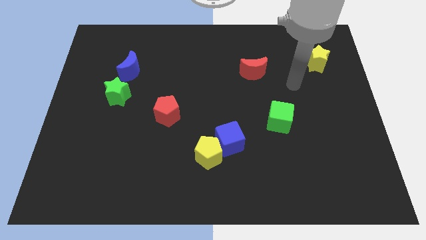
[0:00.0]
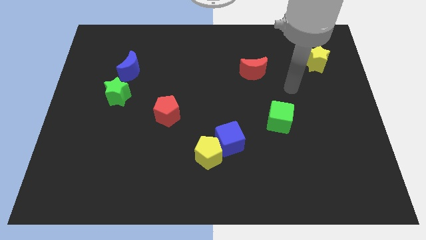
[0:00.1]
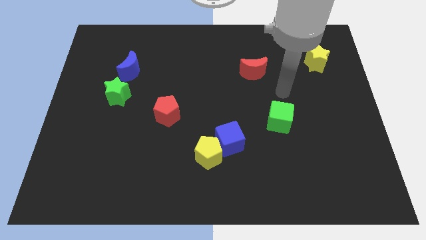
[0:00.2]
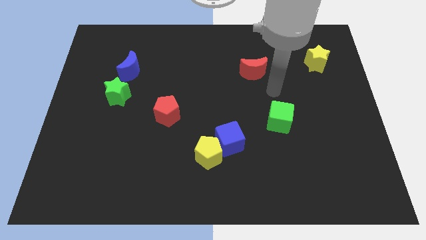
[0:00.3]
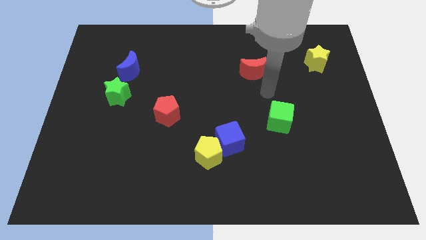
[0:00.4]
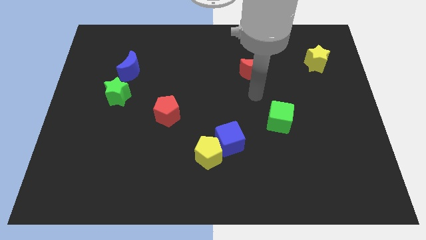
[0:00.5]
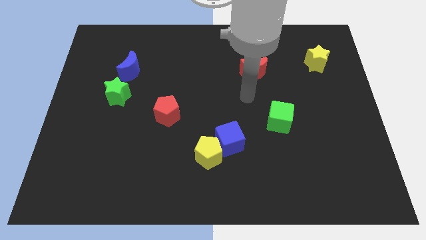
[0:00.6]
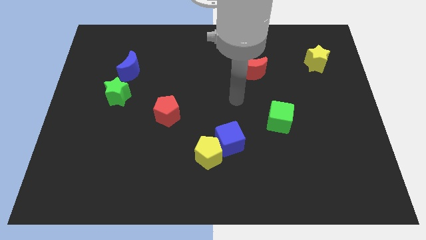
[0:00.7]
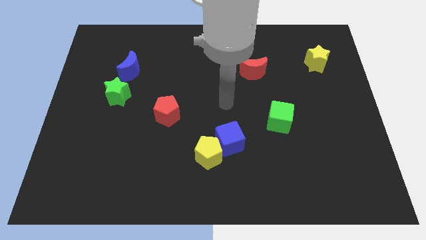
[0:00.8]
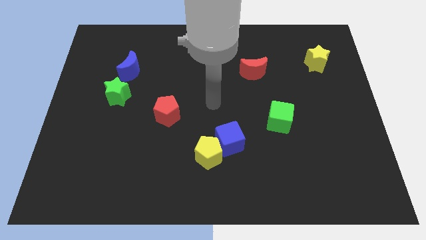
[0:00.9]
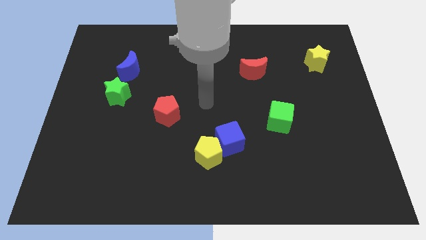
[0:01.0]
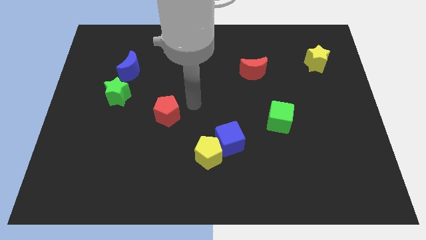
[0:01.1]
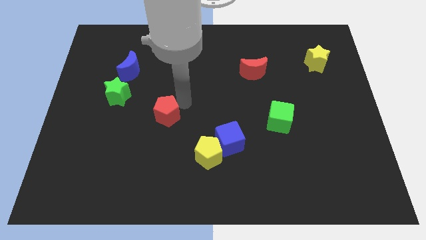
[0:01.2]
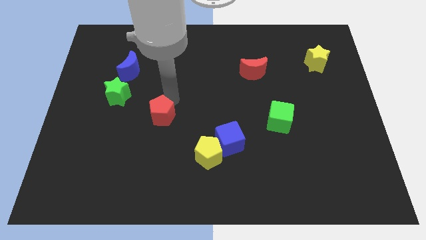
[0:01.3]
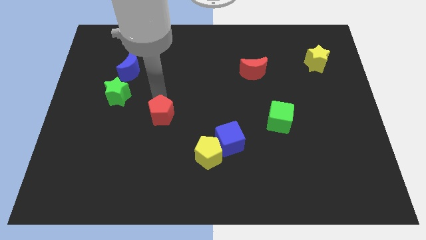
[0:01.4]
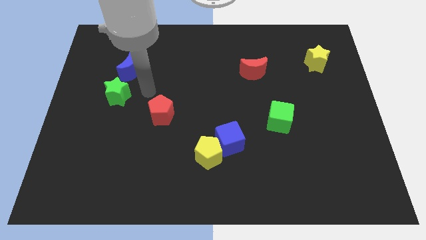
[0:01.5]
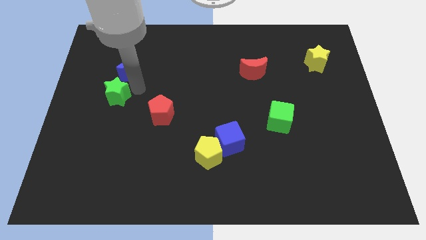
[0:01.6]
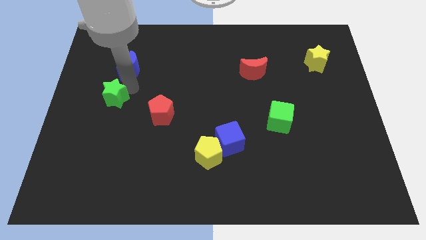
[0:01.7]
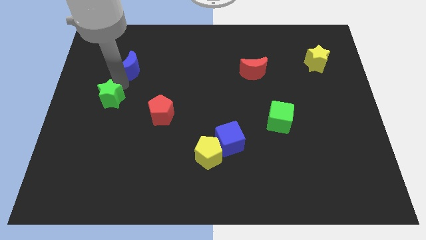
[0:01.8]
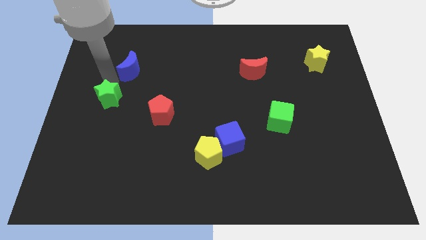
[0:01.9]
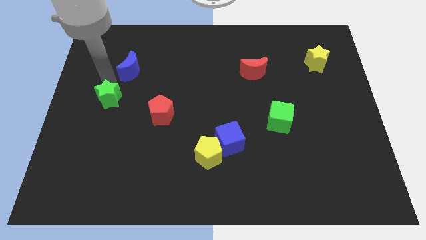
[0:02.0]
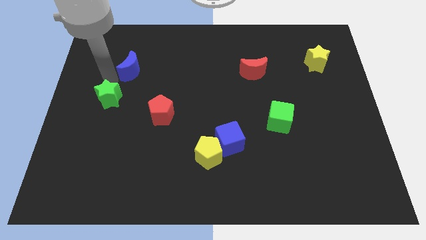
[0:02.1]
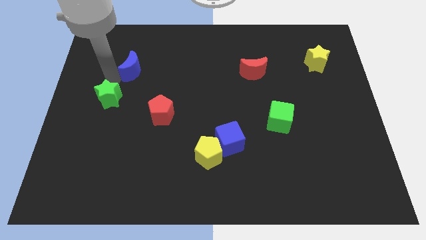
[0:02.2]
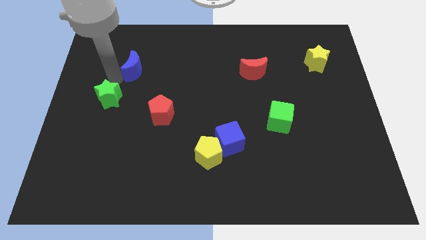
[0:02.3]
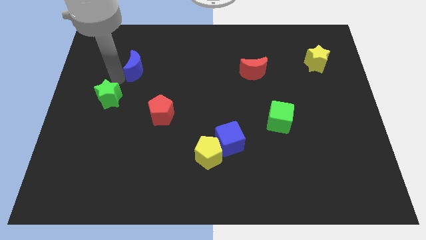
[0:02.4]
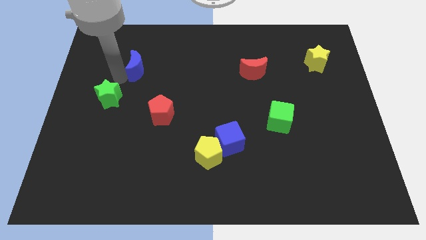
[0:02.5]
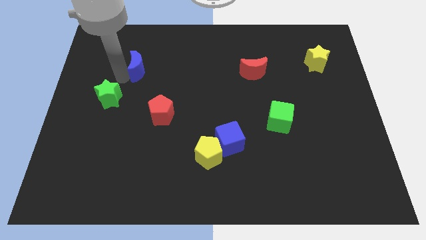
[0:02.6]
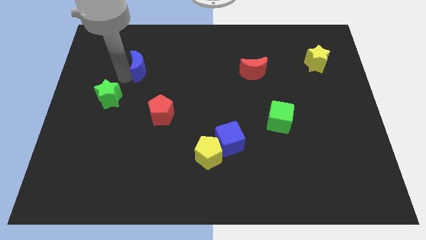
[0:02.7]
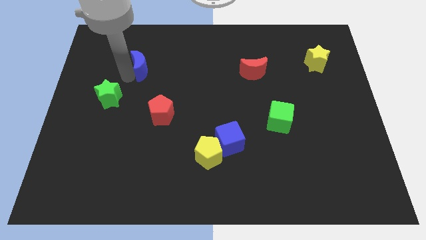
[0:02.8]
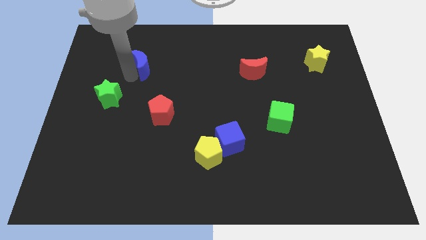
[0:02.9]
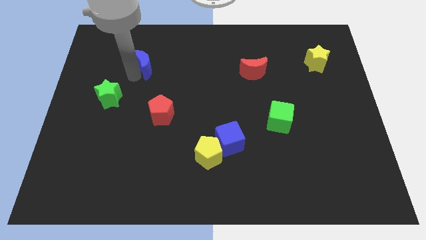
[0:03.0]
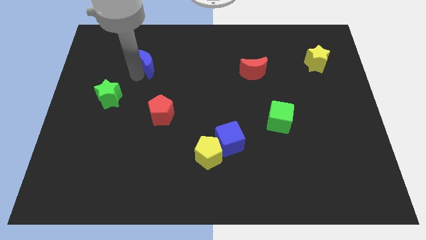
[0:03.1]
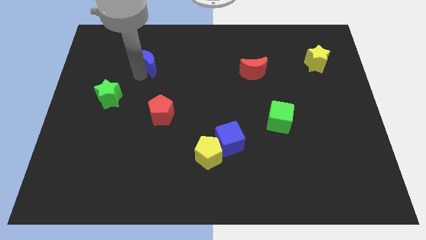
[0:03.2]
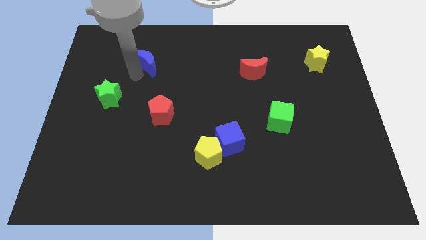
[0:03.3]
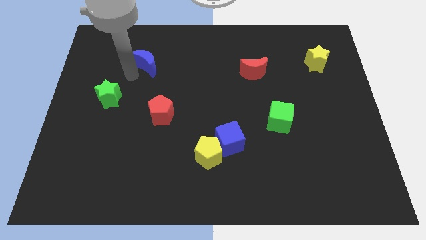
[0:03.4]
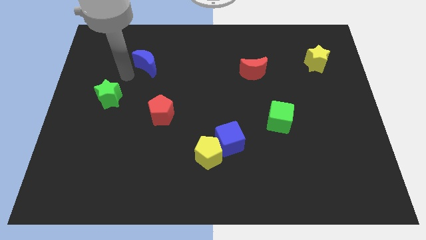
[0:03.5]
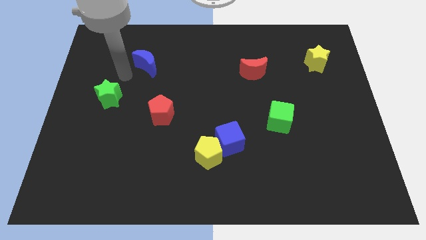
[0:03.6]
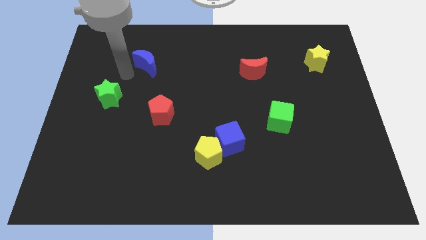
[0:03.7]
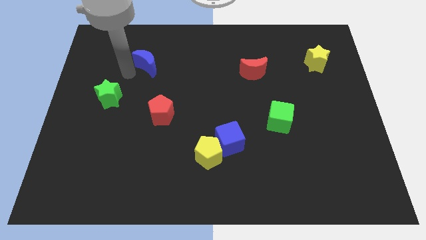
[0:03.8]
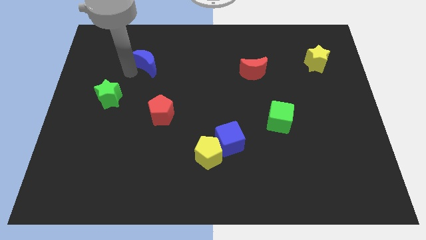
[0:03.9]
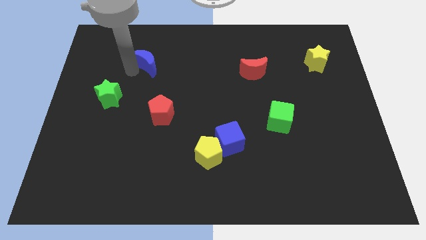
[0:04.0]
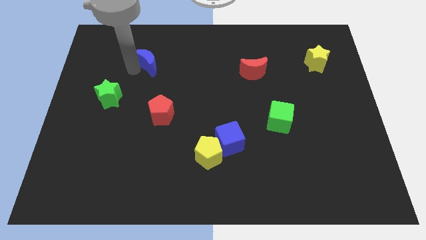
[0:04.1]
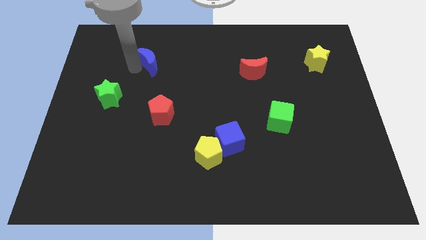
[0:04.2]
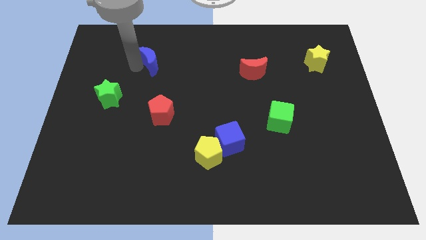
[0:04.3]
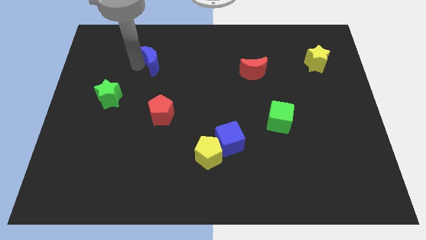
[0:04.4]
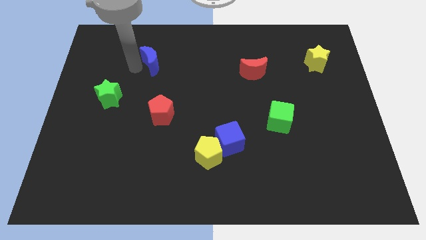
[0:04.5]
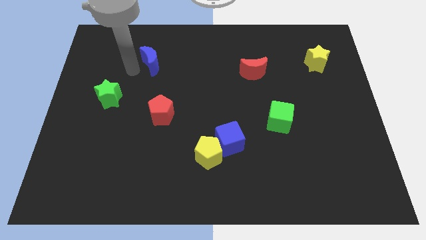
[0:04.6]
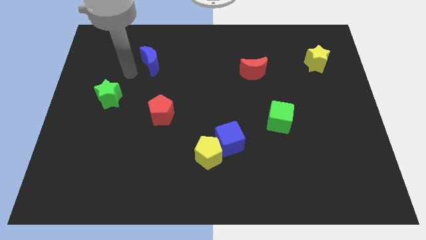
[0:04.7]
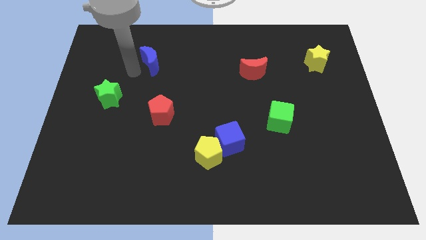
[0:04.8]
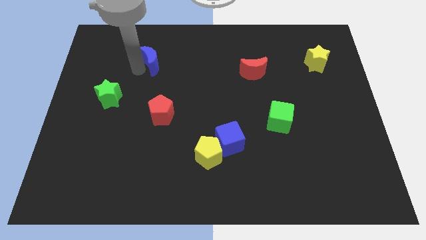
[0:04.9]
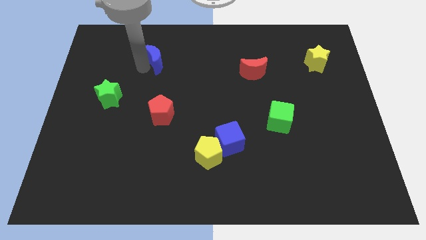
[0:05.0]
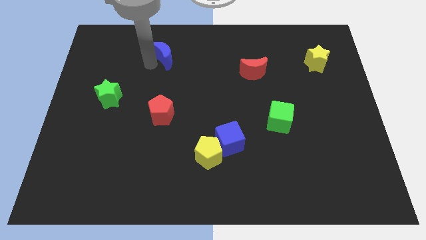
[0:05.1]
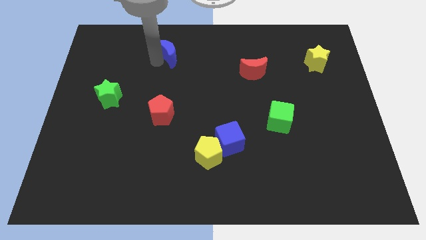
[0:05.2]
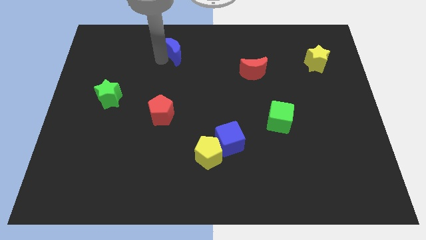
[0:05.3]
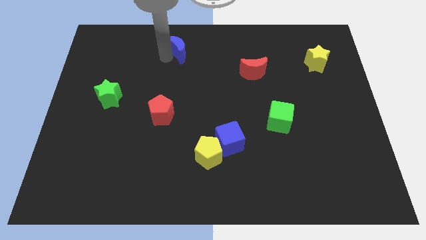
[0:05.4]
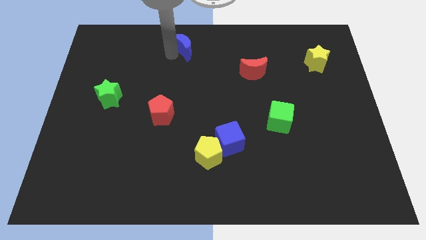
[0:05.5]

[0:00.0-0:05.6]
move the blue moon to the towards your base

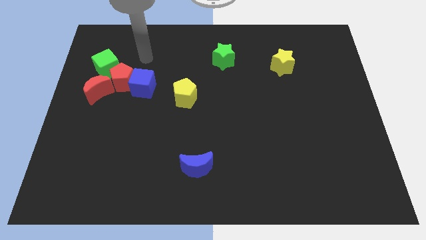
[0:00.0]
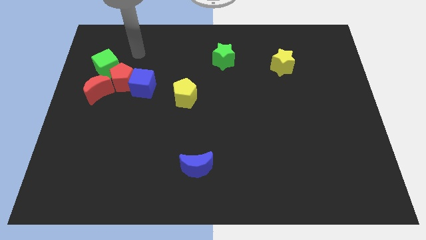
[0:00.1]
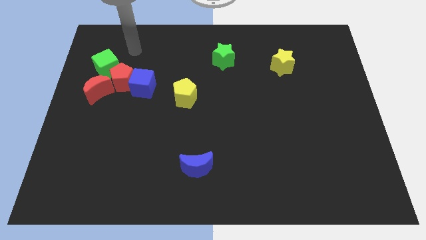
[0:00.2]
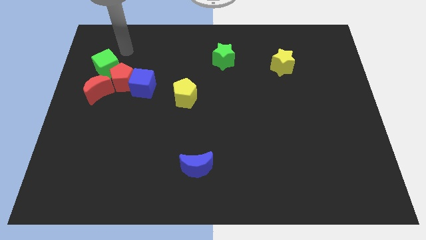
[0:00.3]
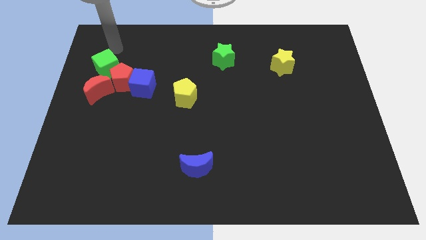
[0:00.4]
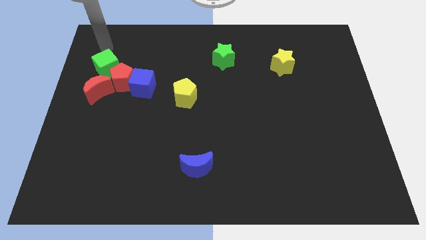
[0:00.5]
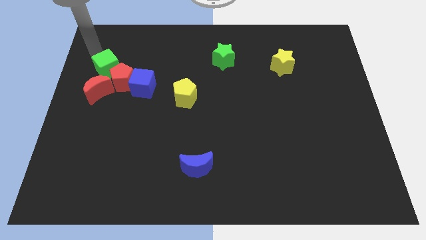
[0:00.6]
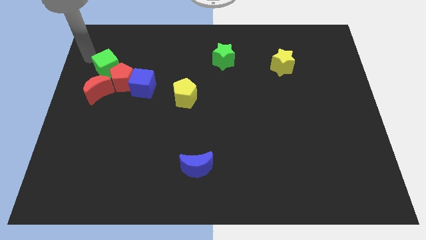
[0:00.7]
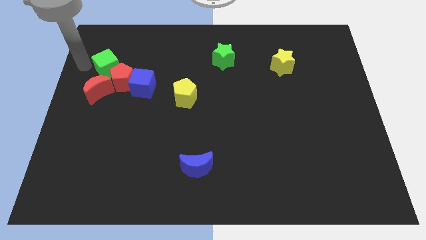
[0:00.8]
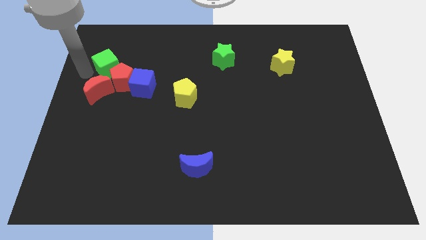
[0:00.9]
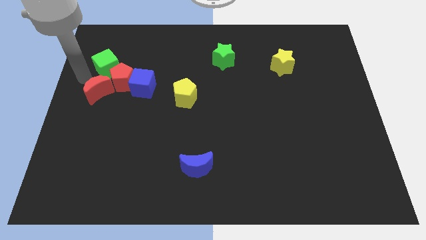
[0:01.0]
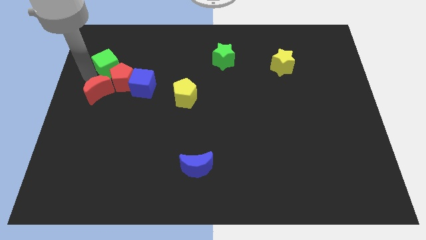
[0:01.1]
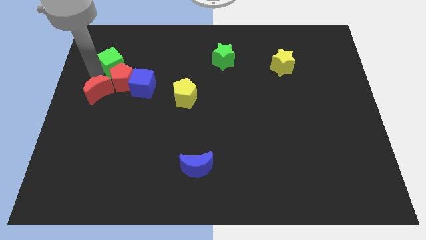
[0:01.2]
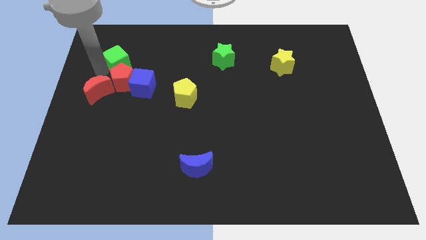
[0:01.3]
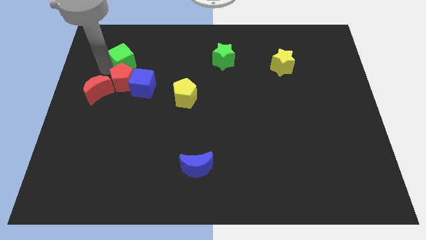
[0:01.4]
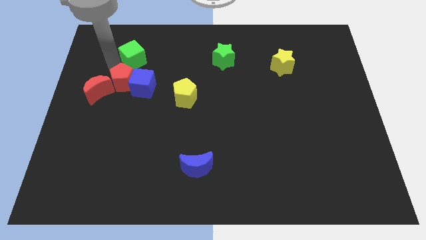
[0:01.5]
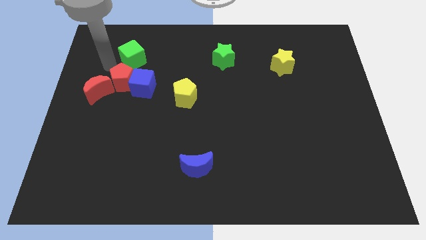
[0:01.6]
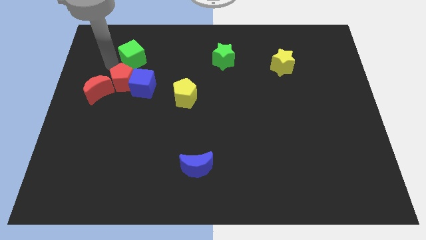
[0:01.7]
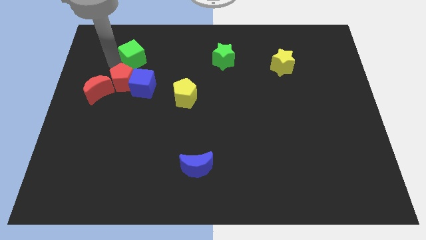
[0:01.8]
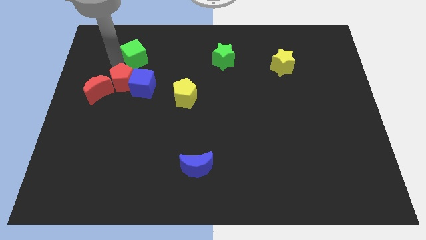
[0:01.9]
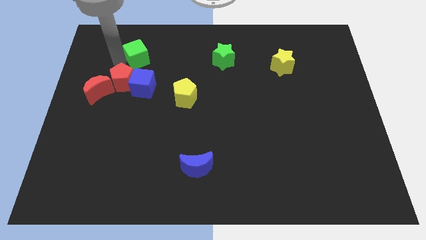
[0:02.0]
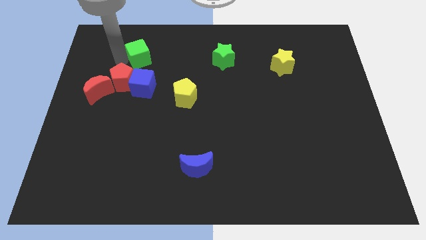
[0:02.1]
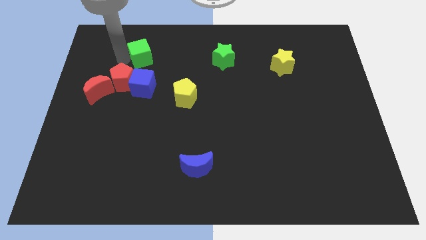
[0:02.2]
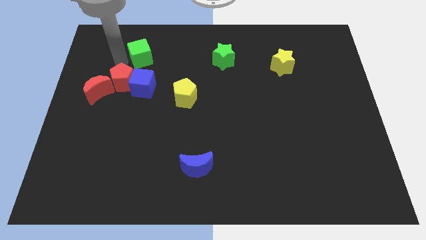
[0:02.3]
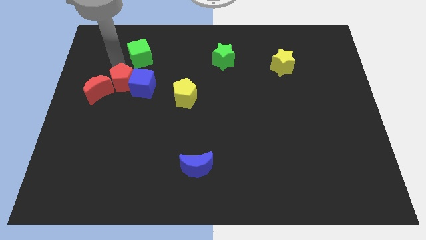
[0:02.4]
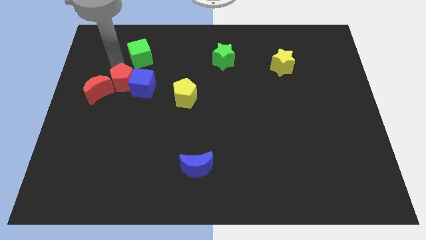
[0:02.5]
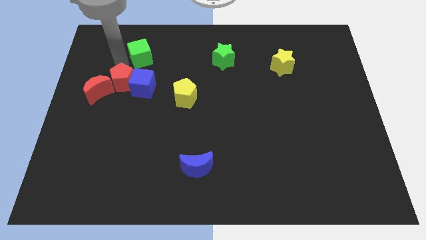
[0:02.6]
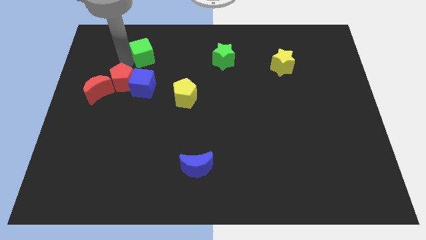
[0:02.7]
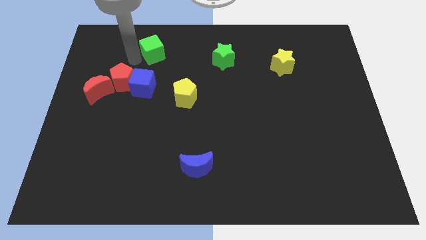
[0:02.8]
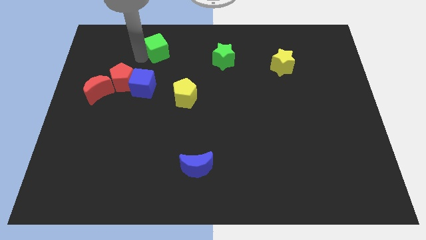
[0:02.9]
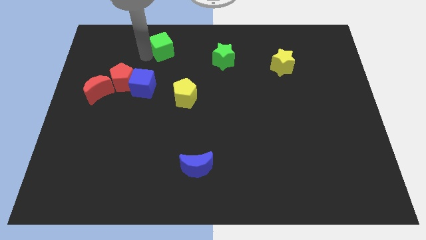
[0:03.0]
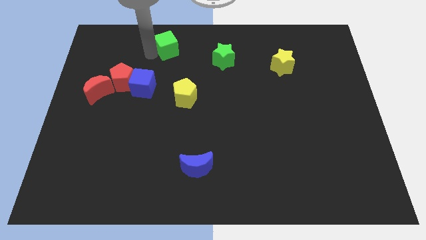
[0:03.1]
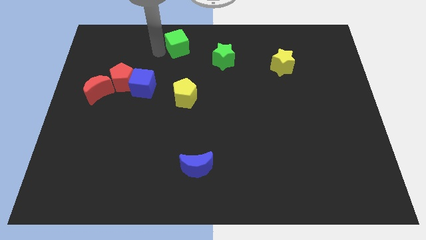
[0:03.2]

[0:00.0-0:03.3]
put the green cube to the top side
